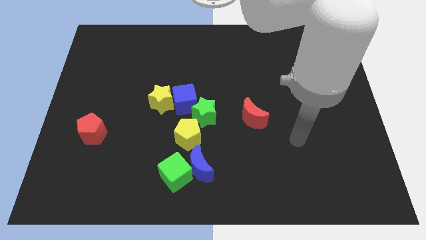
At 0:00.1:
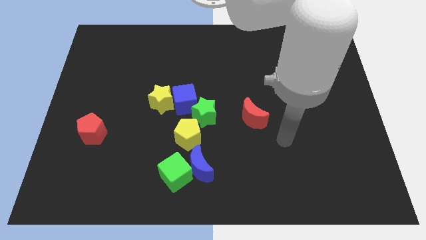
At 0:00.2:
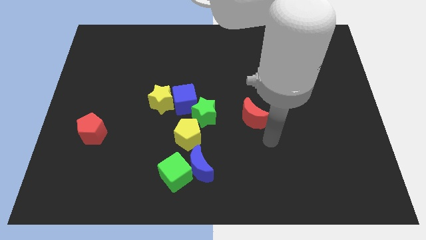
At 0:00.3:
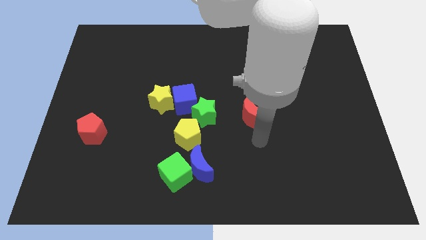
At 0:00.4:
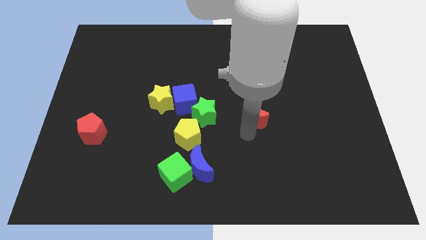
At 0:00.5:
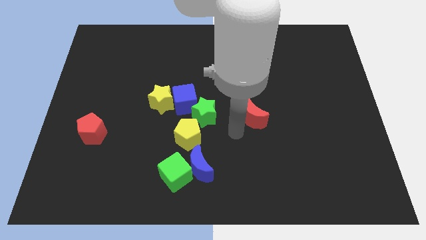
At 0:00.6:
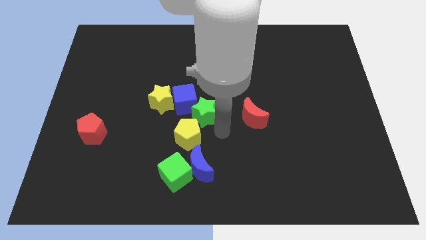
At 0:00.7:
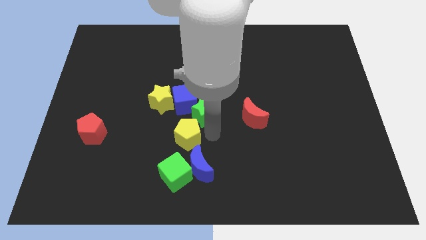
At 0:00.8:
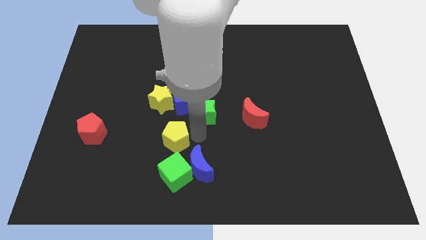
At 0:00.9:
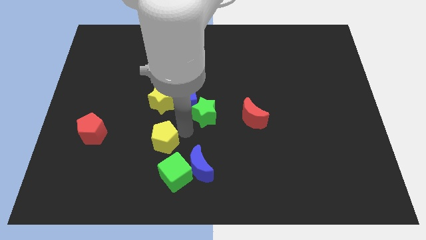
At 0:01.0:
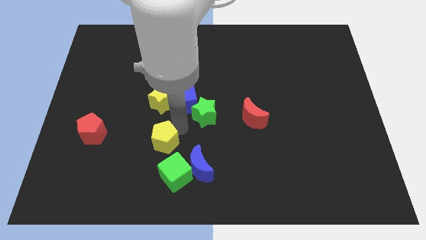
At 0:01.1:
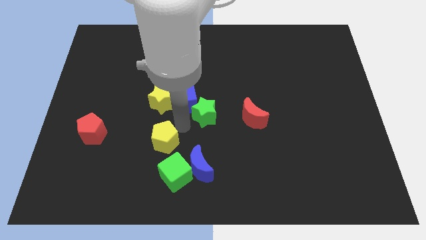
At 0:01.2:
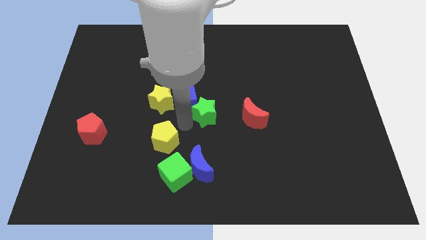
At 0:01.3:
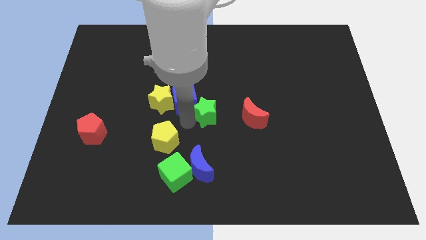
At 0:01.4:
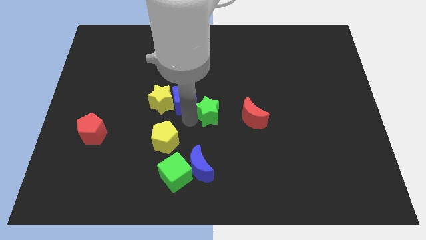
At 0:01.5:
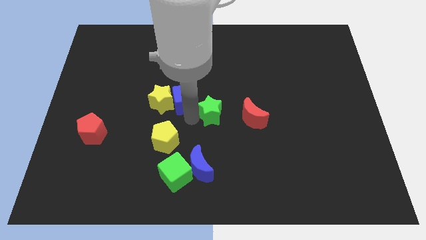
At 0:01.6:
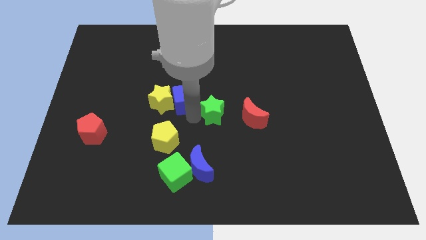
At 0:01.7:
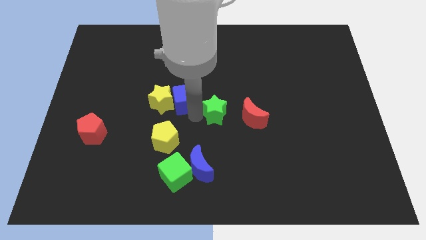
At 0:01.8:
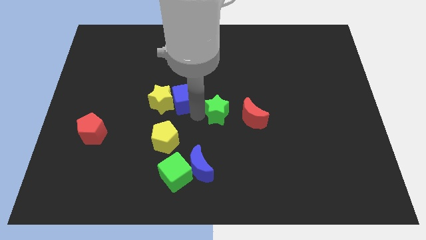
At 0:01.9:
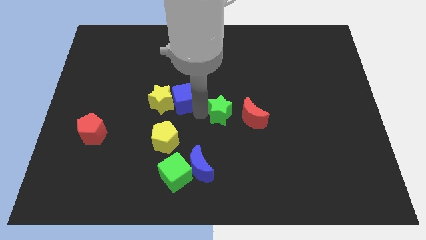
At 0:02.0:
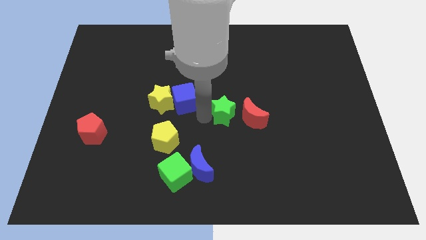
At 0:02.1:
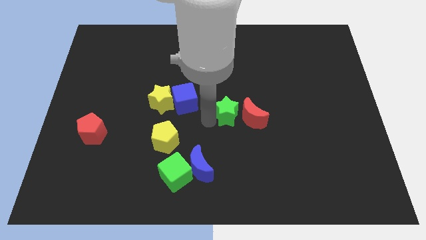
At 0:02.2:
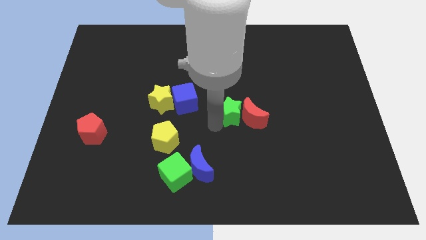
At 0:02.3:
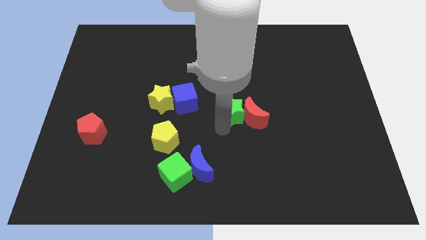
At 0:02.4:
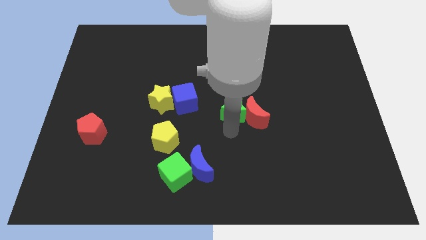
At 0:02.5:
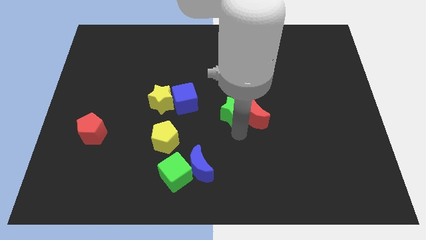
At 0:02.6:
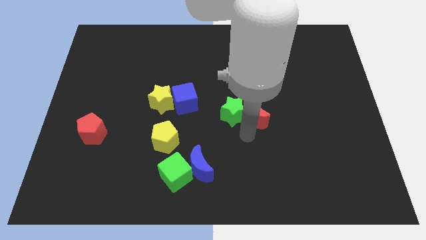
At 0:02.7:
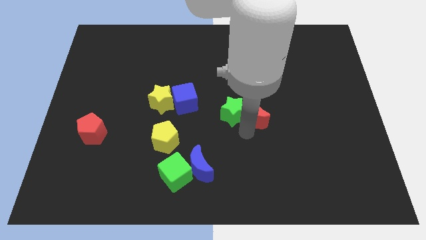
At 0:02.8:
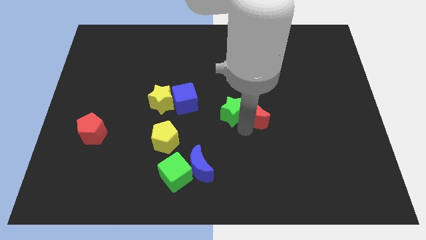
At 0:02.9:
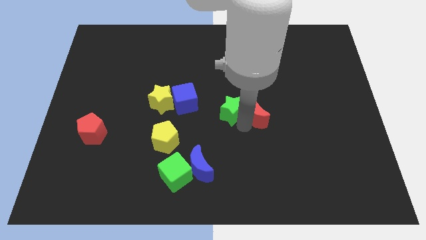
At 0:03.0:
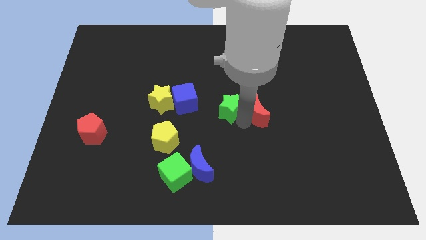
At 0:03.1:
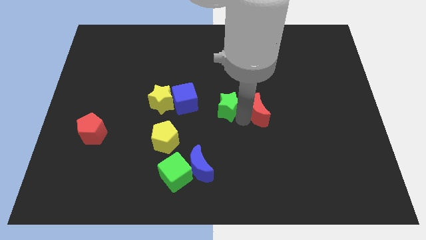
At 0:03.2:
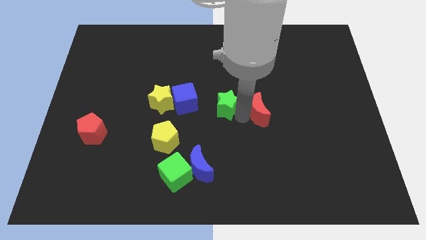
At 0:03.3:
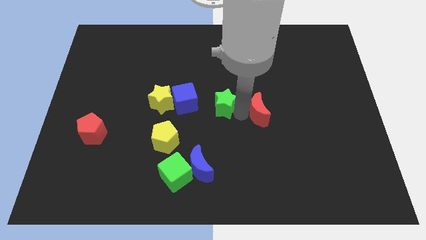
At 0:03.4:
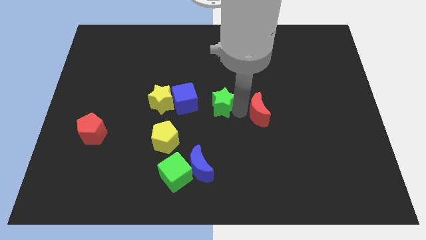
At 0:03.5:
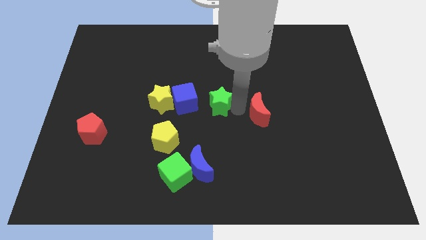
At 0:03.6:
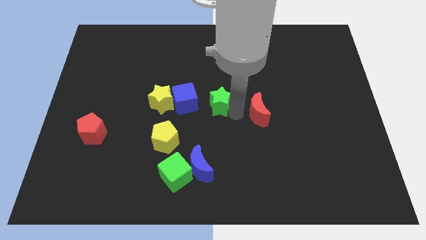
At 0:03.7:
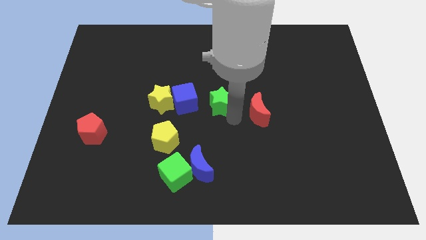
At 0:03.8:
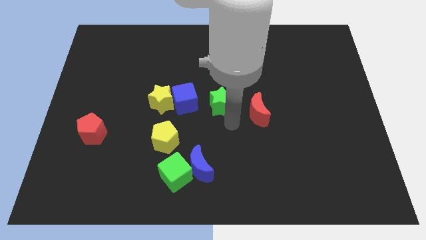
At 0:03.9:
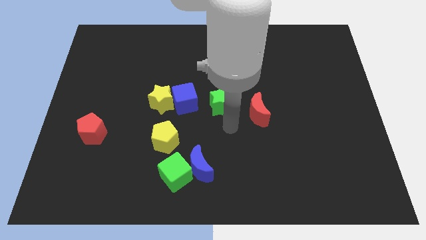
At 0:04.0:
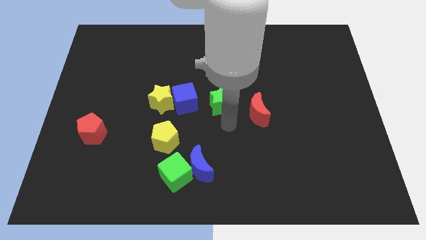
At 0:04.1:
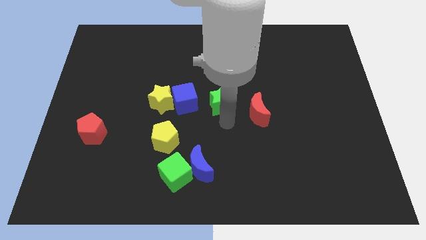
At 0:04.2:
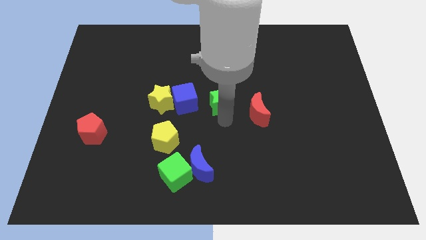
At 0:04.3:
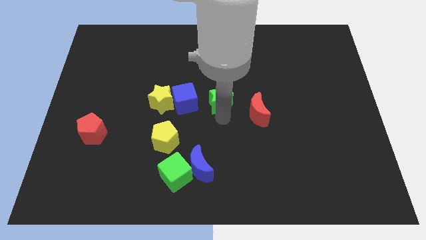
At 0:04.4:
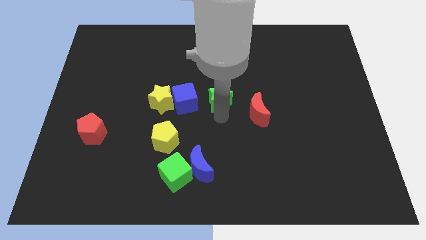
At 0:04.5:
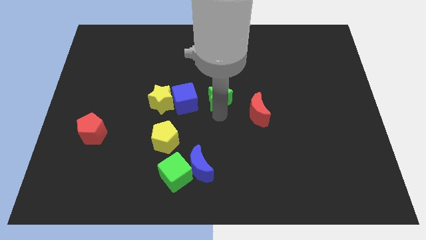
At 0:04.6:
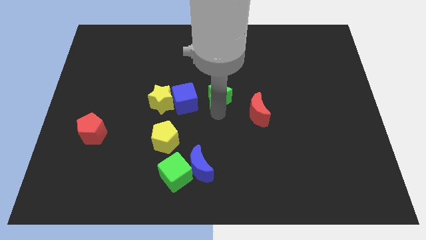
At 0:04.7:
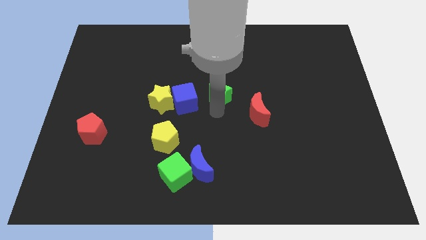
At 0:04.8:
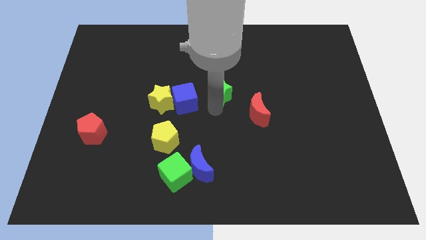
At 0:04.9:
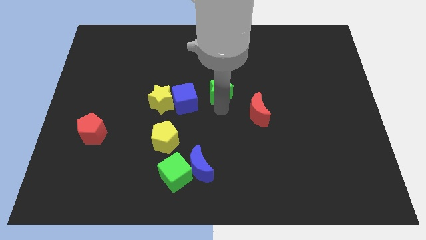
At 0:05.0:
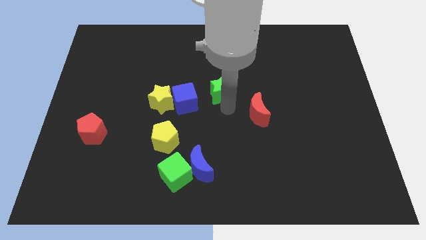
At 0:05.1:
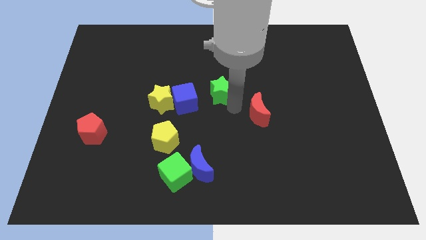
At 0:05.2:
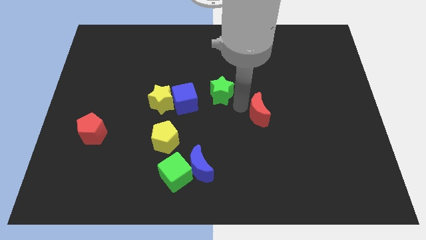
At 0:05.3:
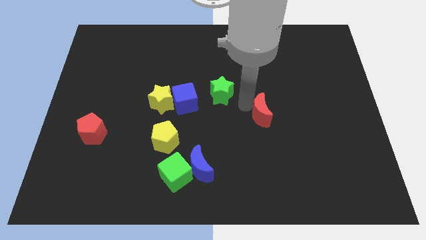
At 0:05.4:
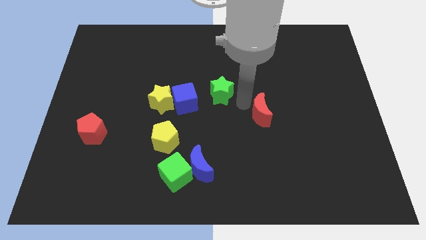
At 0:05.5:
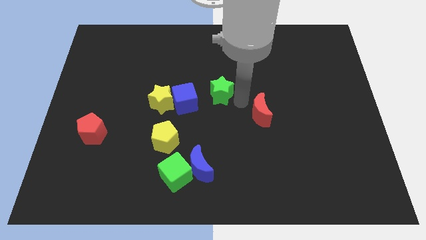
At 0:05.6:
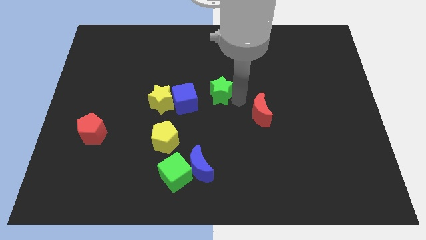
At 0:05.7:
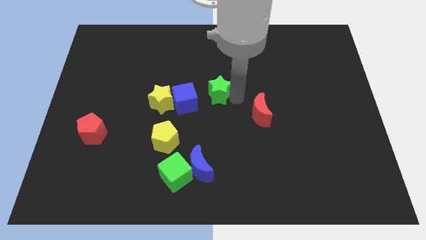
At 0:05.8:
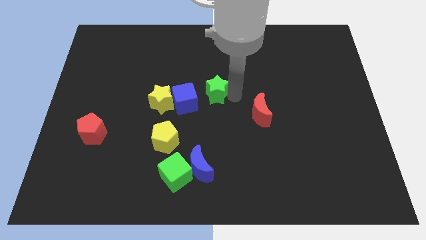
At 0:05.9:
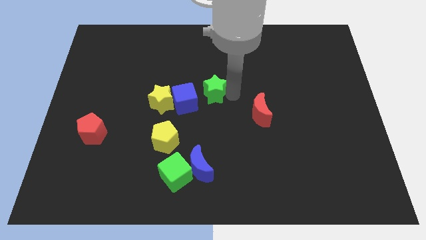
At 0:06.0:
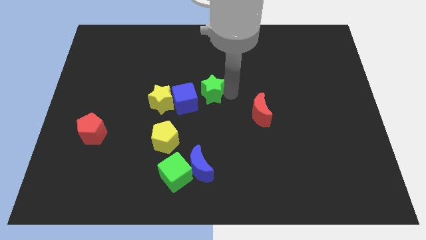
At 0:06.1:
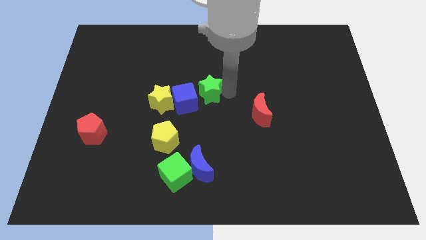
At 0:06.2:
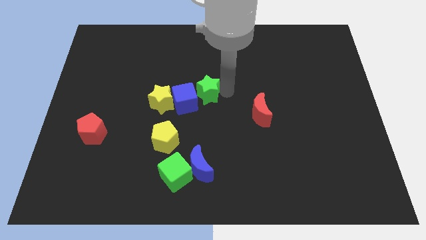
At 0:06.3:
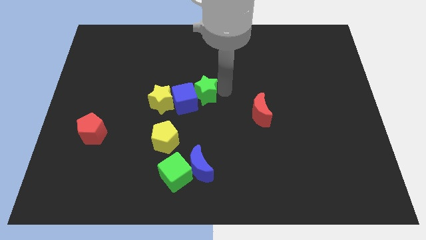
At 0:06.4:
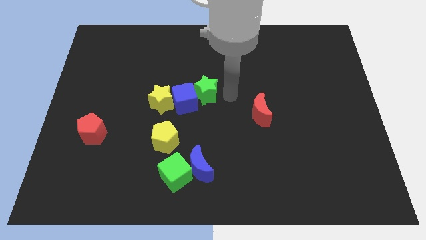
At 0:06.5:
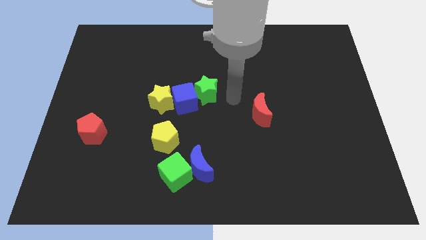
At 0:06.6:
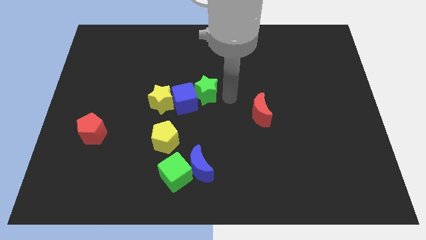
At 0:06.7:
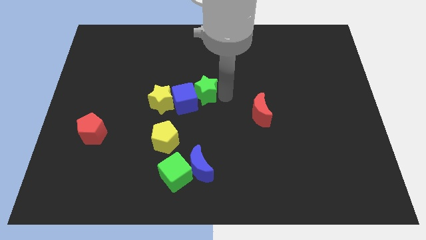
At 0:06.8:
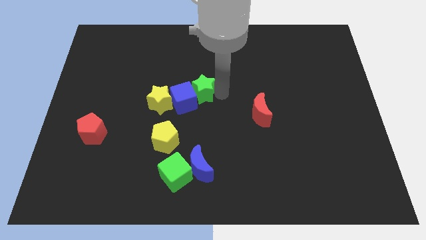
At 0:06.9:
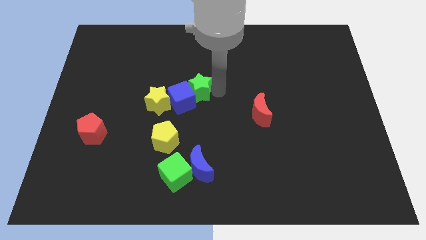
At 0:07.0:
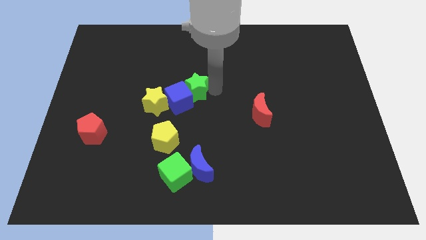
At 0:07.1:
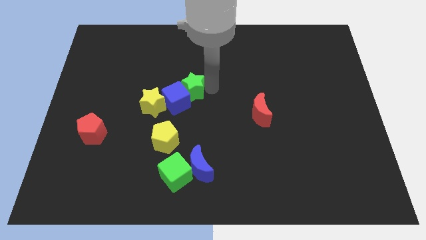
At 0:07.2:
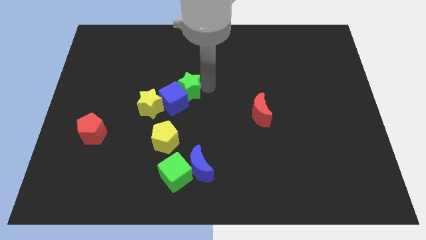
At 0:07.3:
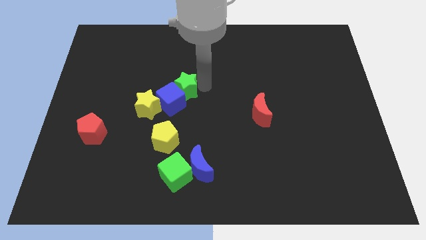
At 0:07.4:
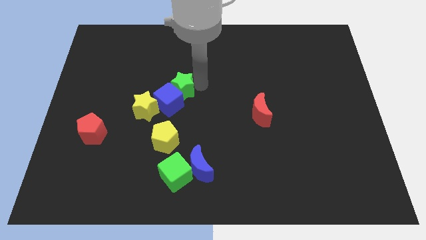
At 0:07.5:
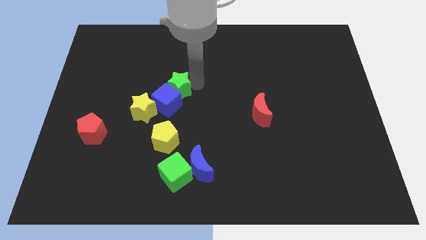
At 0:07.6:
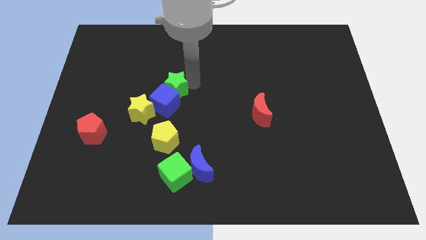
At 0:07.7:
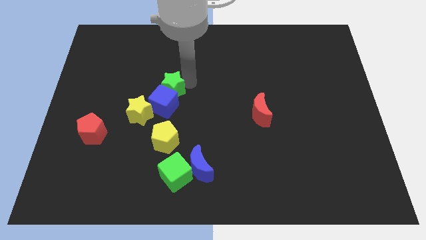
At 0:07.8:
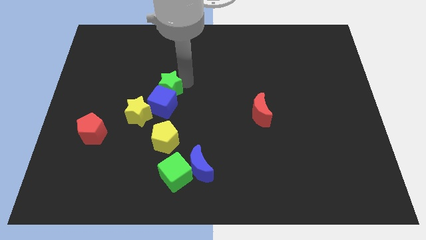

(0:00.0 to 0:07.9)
slide the green star to the top left side of the blue cube
